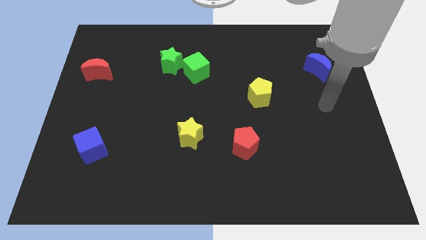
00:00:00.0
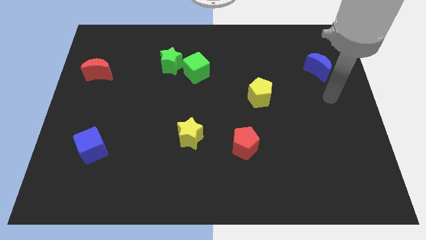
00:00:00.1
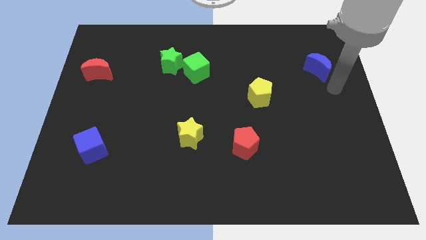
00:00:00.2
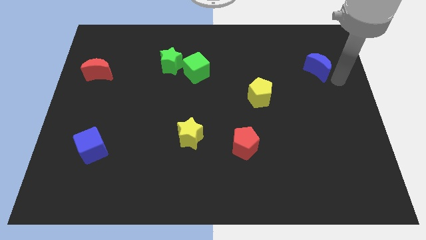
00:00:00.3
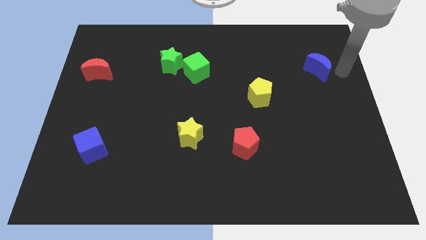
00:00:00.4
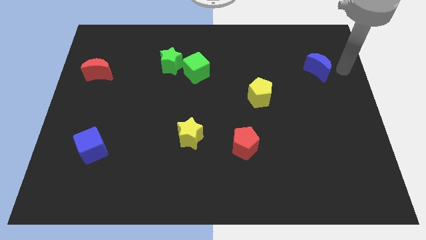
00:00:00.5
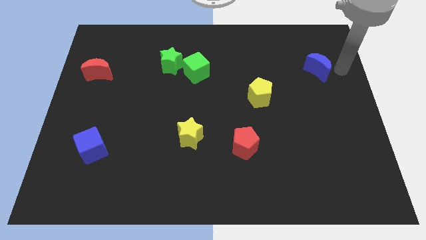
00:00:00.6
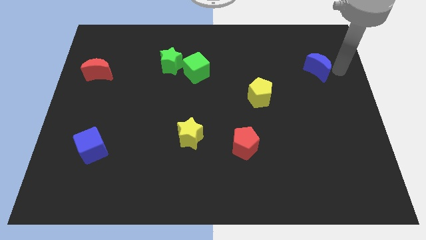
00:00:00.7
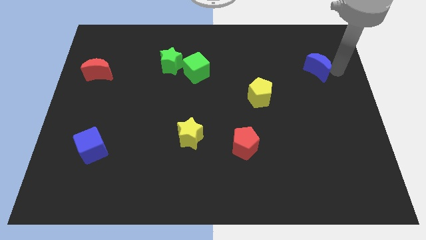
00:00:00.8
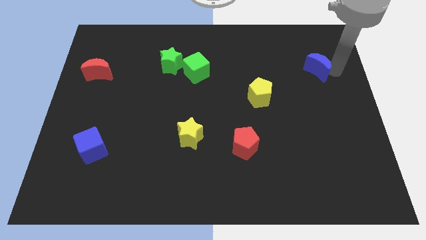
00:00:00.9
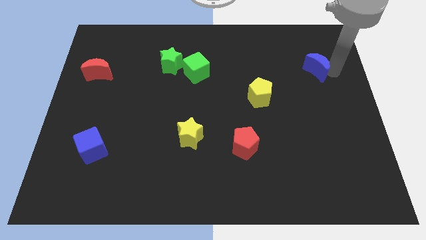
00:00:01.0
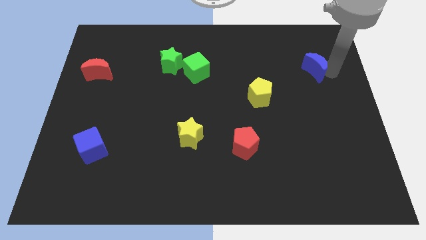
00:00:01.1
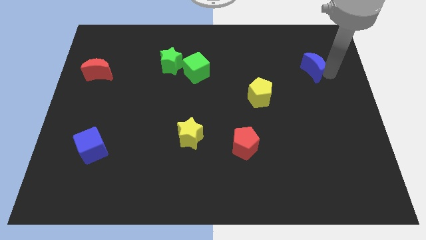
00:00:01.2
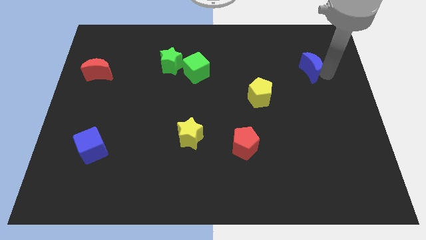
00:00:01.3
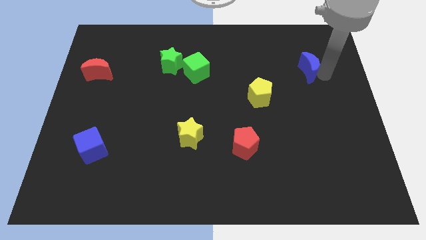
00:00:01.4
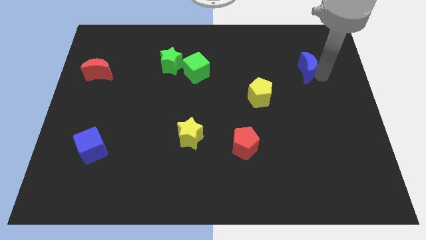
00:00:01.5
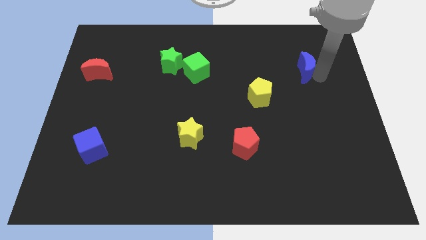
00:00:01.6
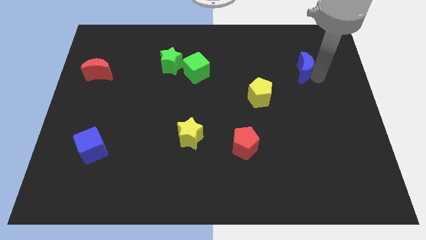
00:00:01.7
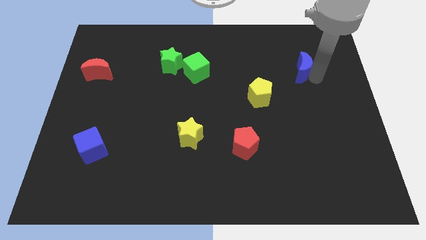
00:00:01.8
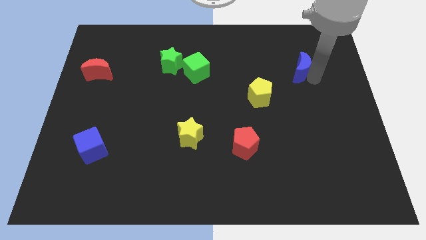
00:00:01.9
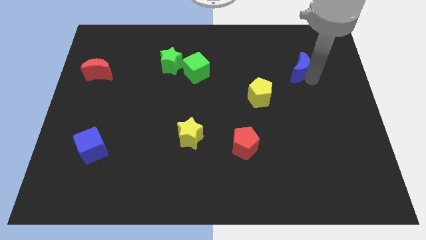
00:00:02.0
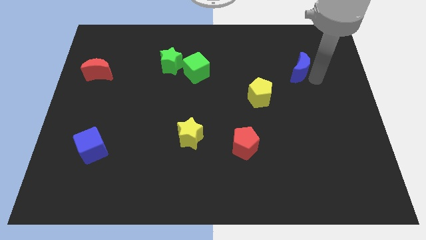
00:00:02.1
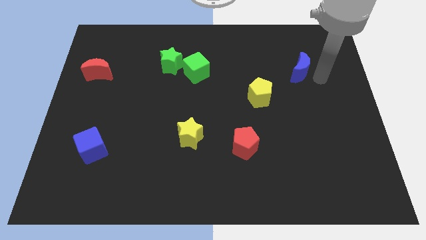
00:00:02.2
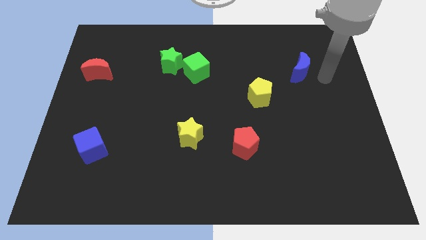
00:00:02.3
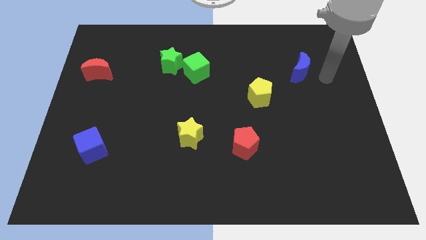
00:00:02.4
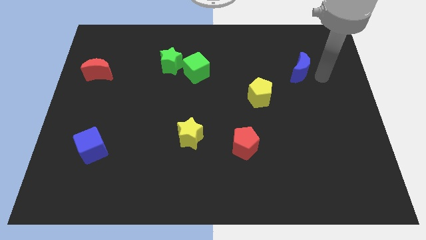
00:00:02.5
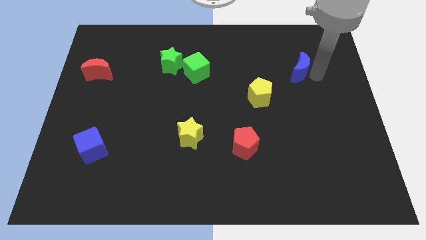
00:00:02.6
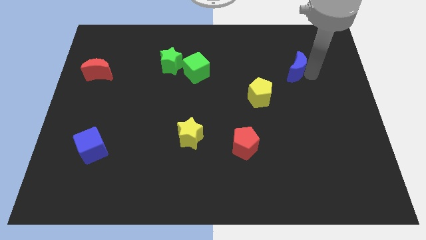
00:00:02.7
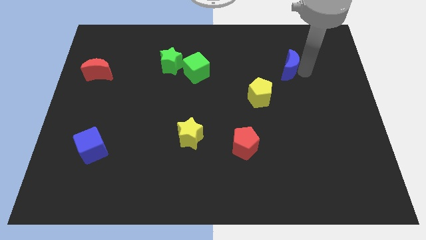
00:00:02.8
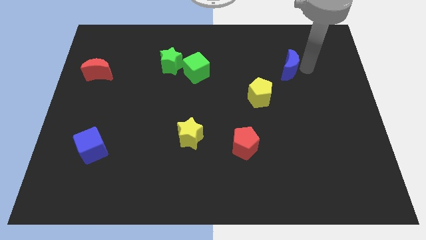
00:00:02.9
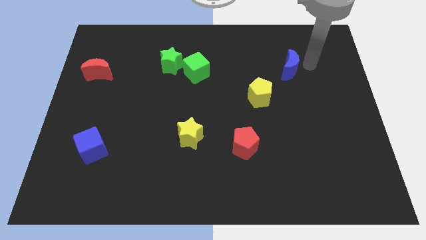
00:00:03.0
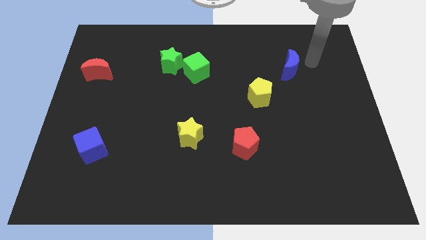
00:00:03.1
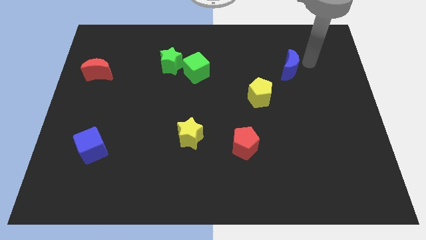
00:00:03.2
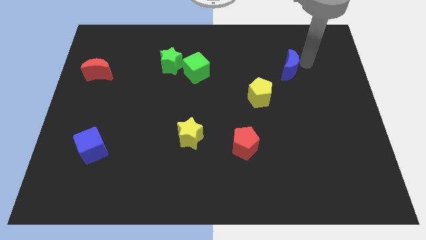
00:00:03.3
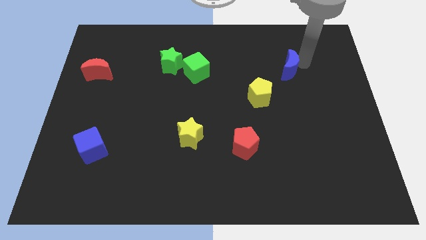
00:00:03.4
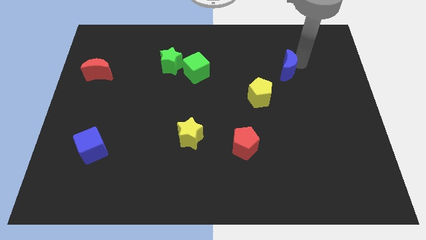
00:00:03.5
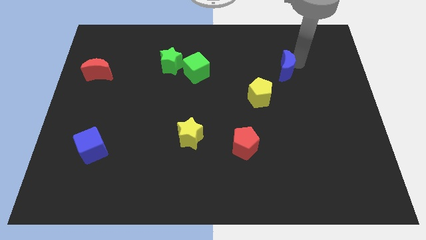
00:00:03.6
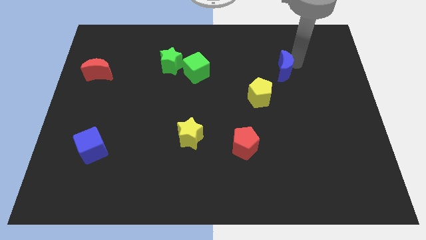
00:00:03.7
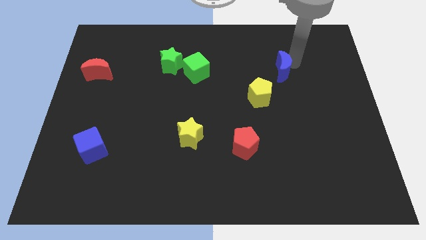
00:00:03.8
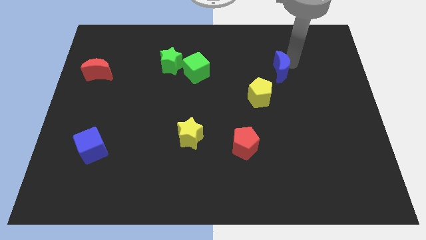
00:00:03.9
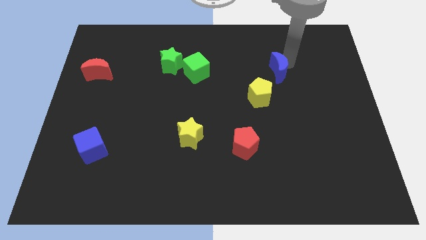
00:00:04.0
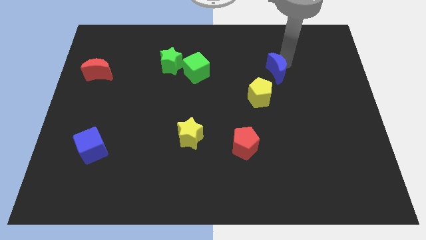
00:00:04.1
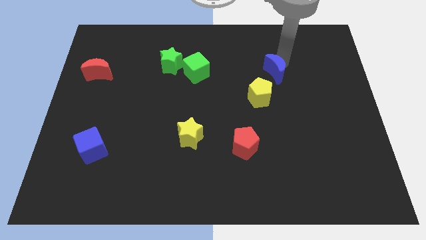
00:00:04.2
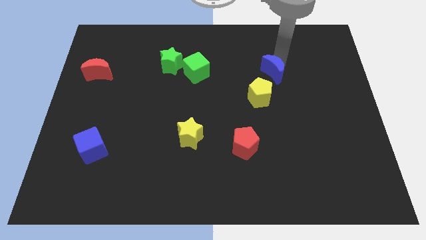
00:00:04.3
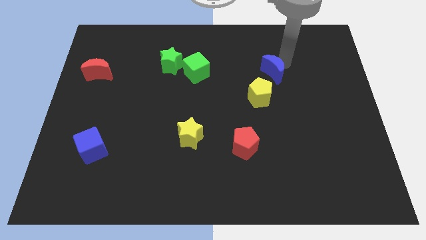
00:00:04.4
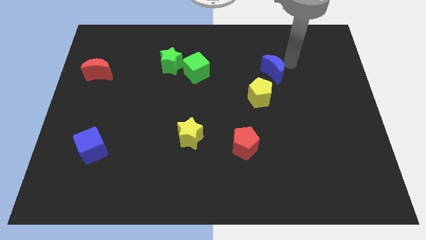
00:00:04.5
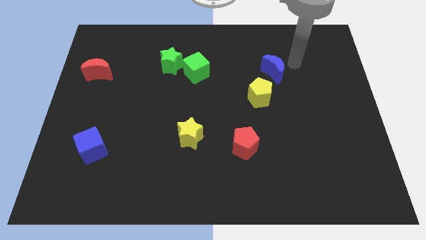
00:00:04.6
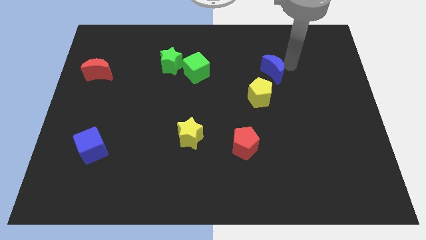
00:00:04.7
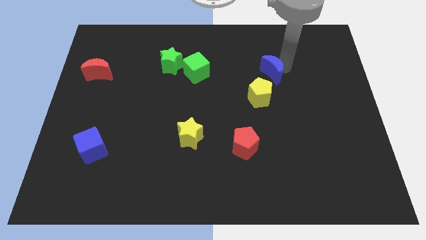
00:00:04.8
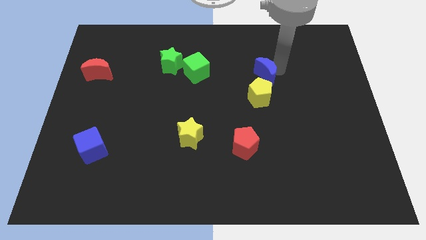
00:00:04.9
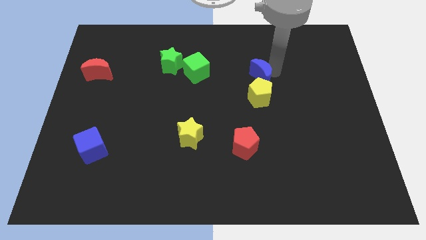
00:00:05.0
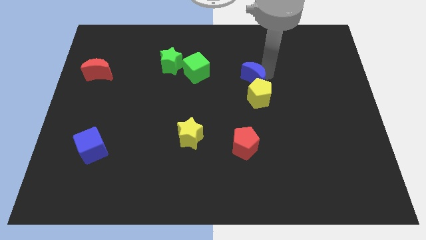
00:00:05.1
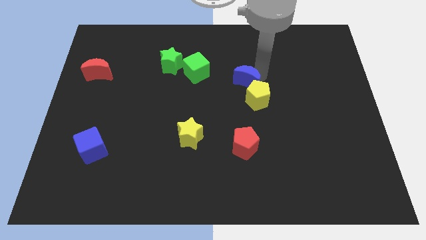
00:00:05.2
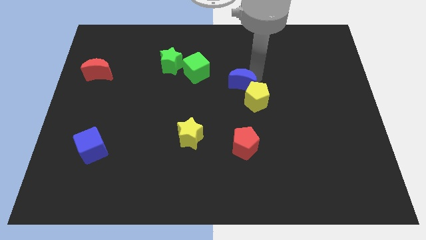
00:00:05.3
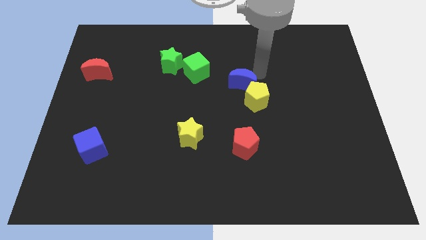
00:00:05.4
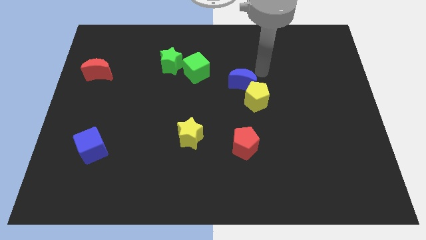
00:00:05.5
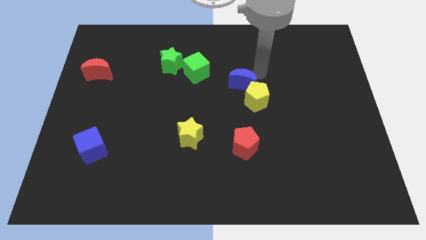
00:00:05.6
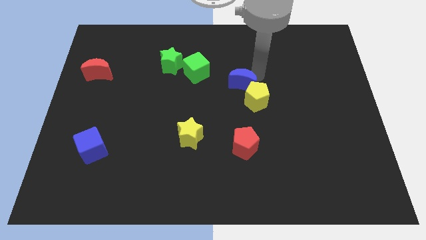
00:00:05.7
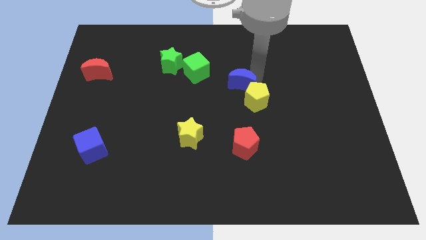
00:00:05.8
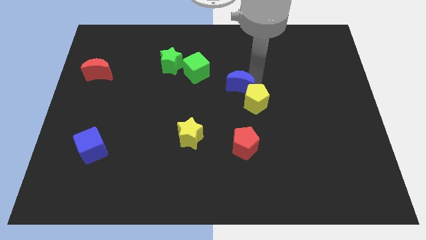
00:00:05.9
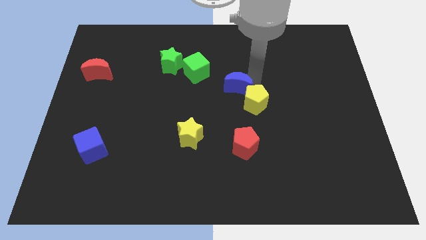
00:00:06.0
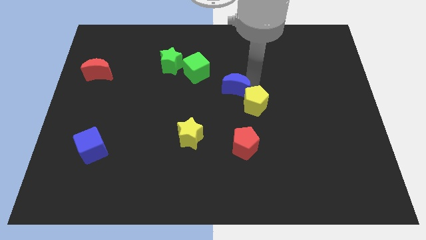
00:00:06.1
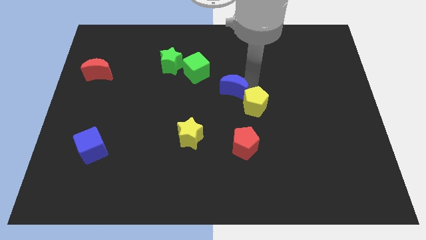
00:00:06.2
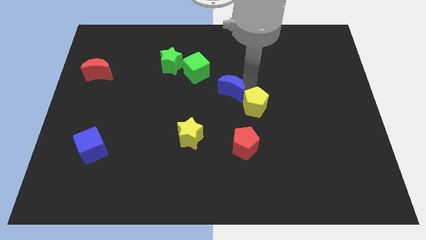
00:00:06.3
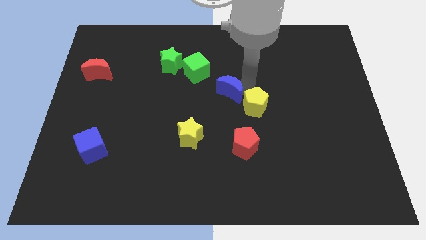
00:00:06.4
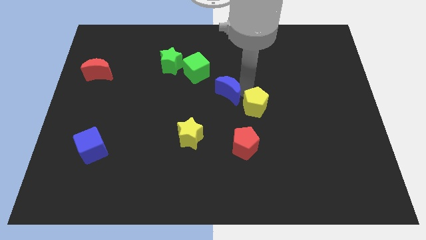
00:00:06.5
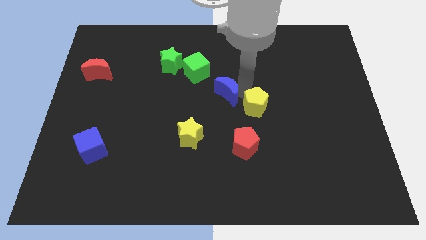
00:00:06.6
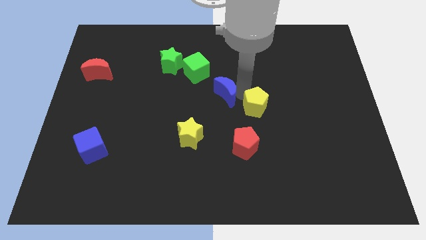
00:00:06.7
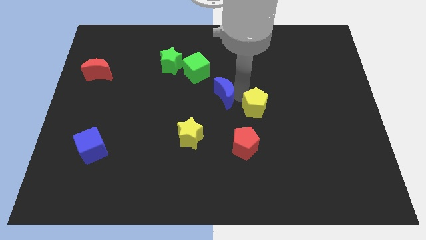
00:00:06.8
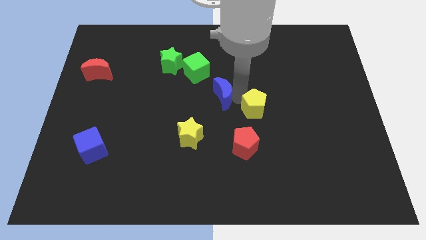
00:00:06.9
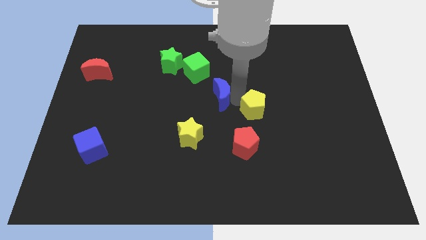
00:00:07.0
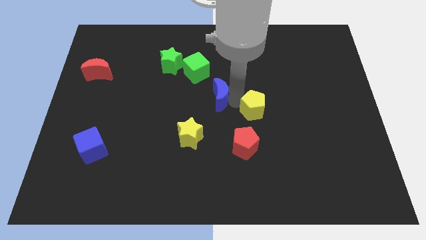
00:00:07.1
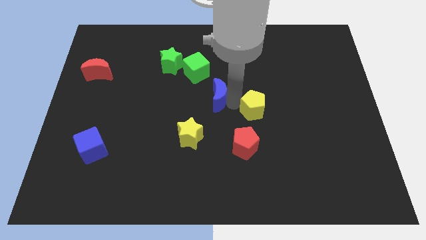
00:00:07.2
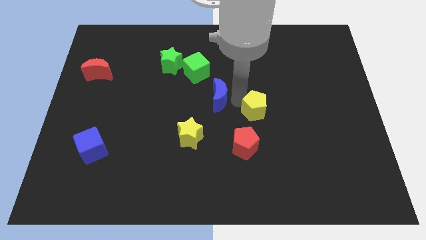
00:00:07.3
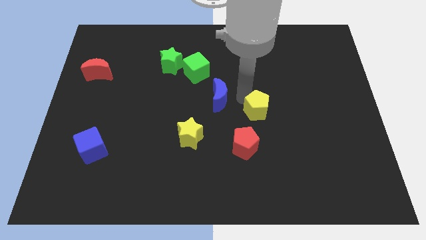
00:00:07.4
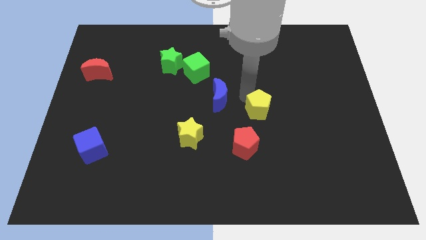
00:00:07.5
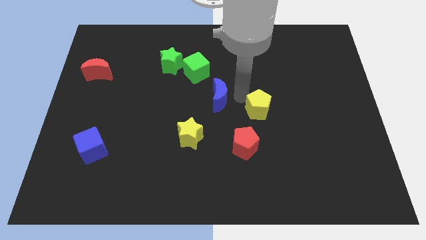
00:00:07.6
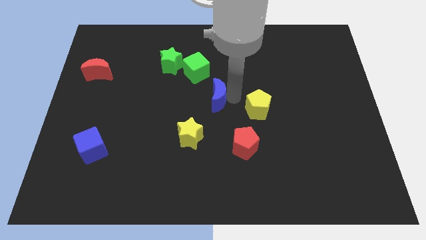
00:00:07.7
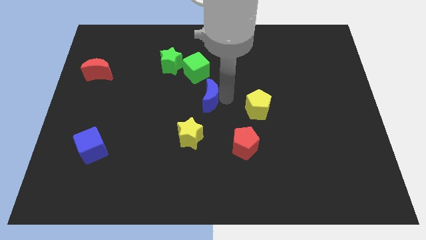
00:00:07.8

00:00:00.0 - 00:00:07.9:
move the blue moon above the yellow star
